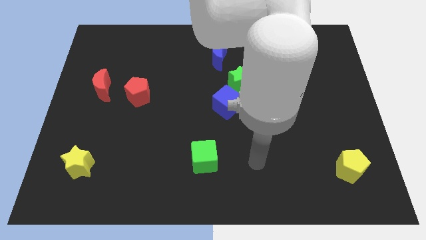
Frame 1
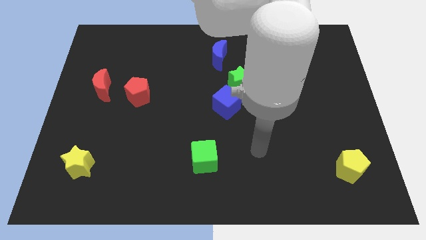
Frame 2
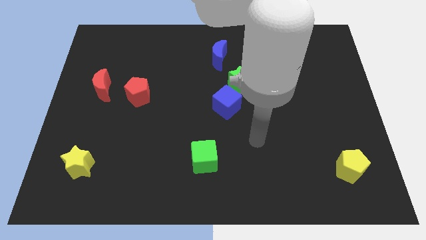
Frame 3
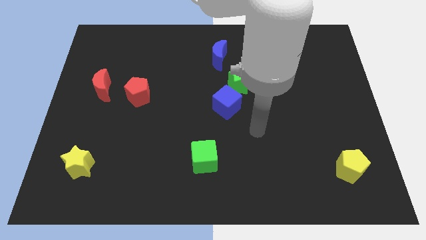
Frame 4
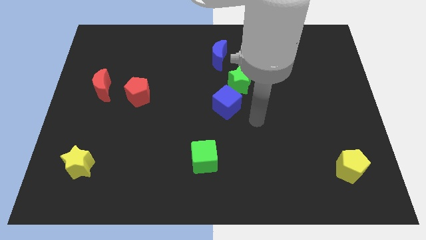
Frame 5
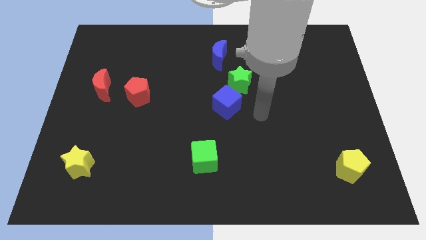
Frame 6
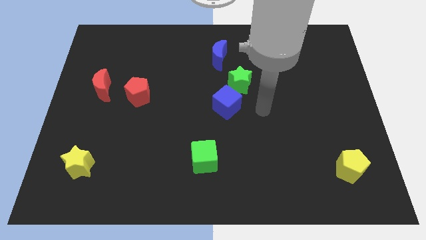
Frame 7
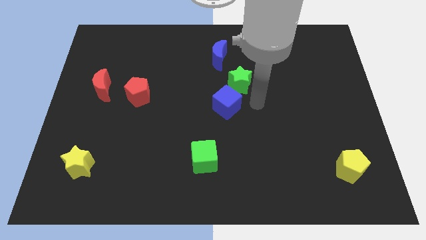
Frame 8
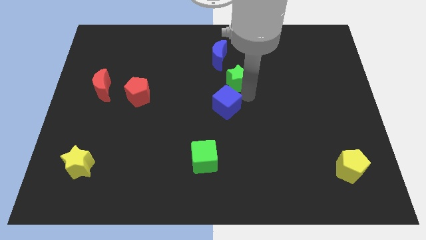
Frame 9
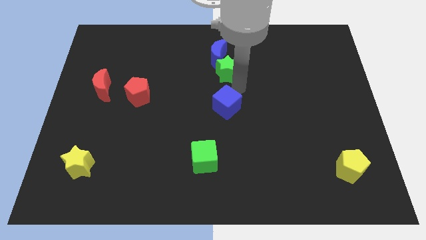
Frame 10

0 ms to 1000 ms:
separate the blue cube from the green star

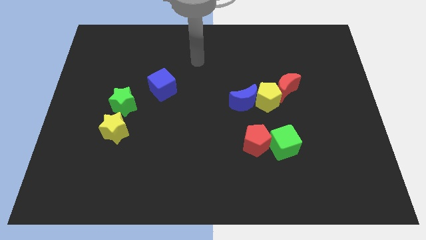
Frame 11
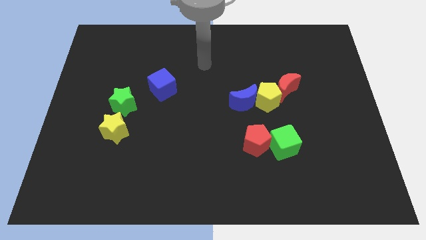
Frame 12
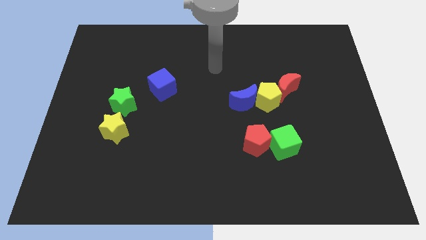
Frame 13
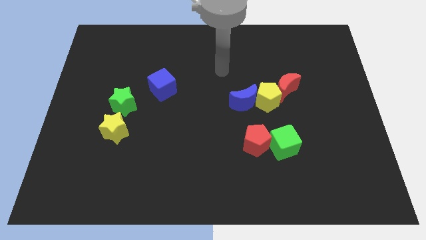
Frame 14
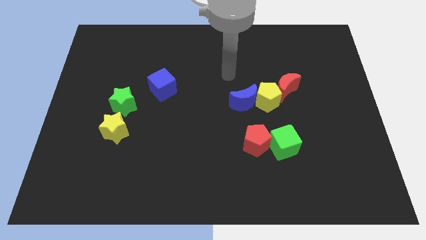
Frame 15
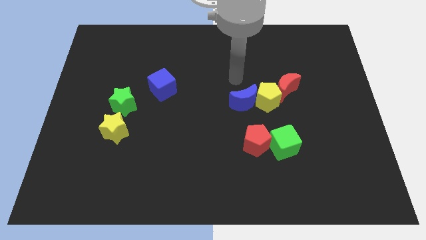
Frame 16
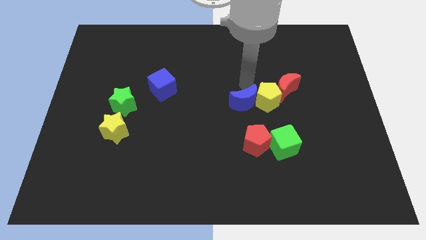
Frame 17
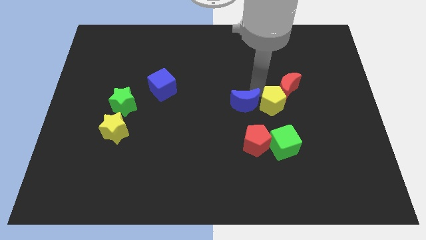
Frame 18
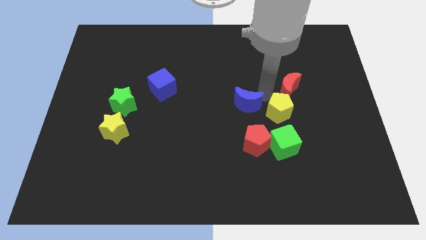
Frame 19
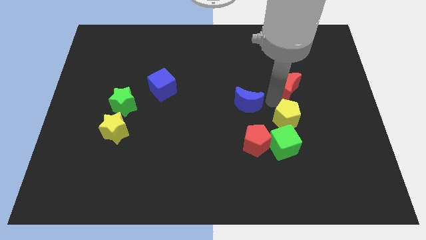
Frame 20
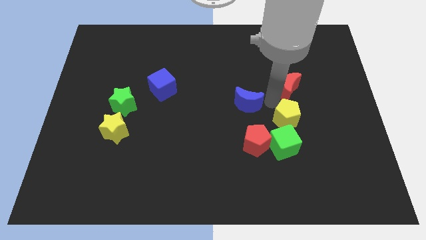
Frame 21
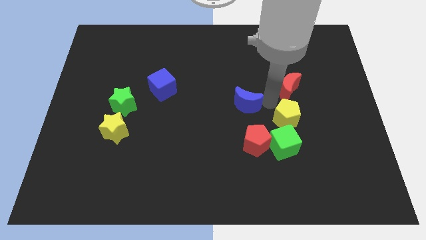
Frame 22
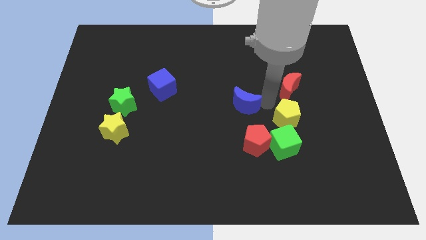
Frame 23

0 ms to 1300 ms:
move the blue moon away from the yellow pentagon

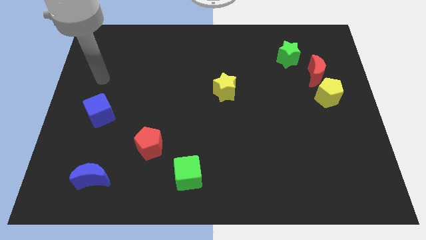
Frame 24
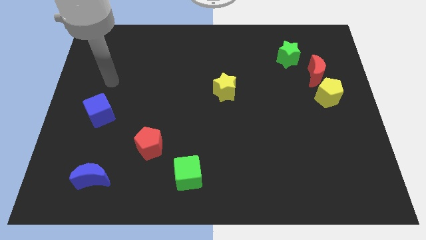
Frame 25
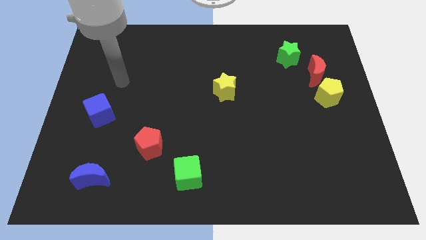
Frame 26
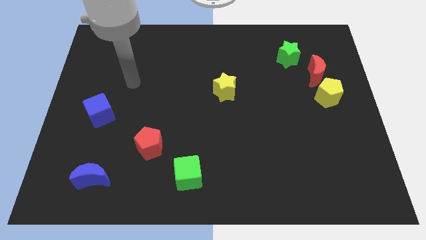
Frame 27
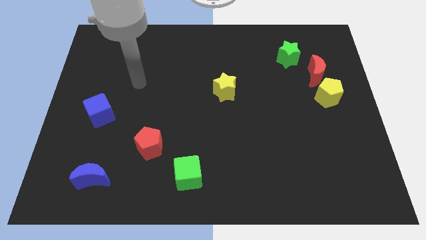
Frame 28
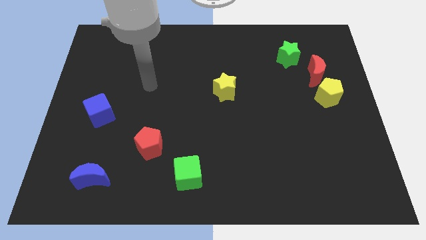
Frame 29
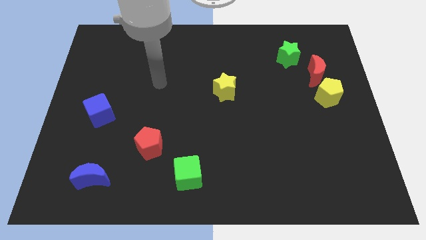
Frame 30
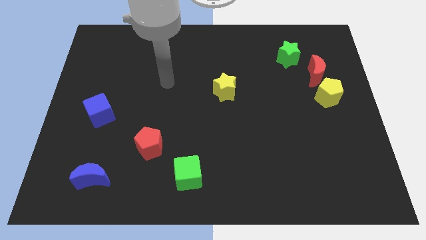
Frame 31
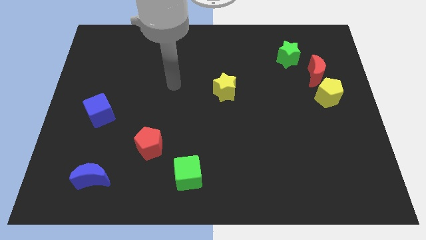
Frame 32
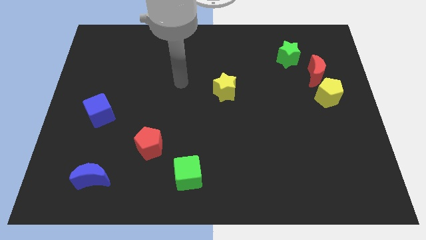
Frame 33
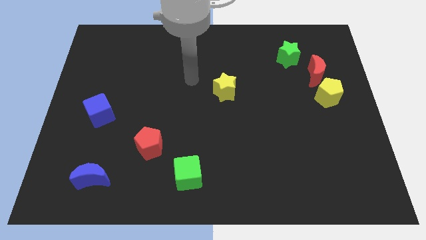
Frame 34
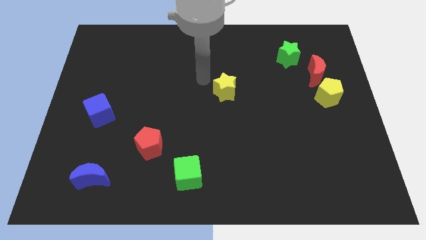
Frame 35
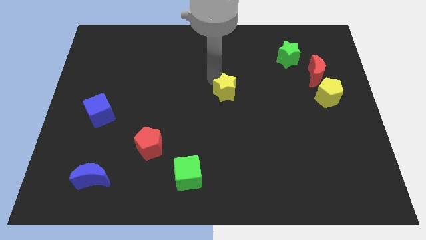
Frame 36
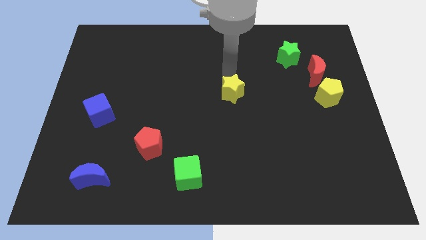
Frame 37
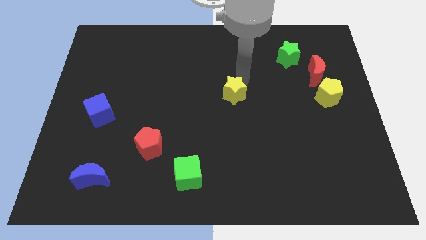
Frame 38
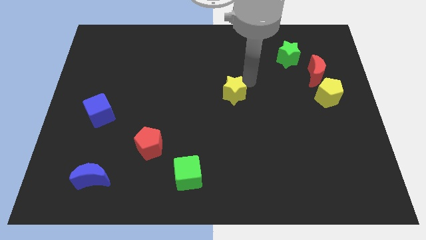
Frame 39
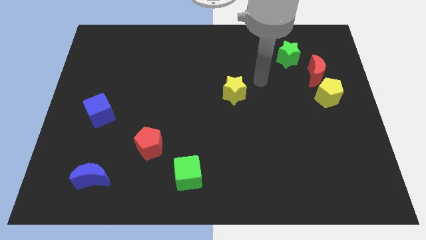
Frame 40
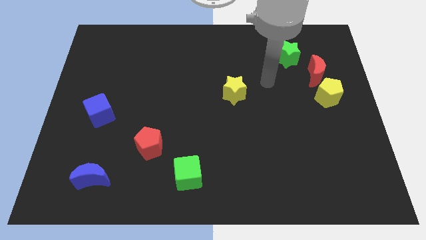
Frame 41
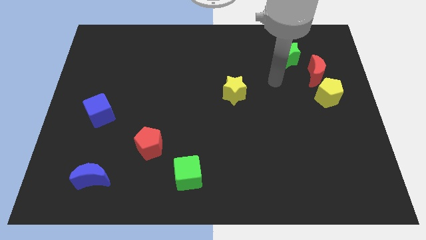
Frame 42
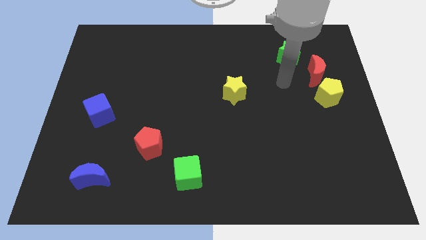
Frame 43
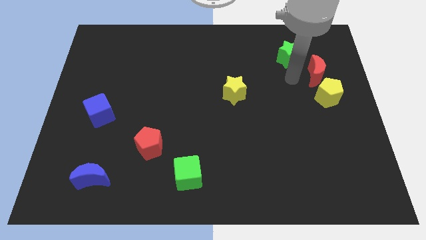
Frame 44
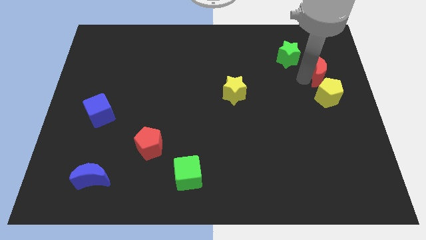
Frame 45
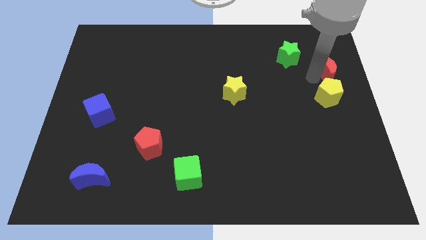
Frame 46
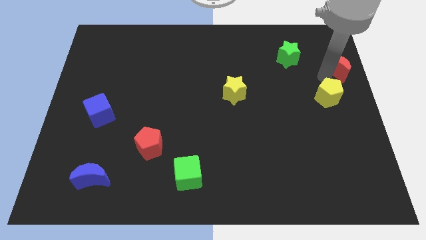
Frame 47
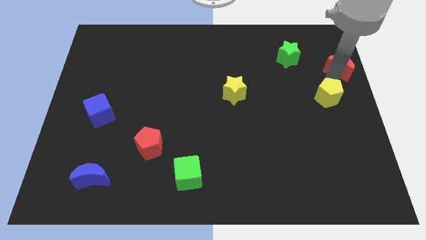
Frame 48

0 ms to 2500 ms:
move the yellow pentagon away from the red moon

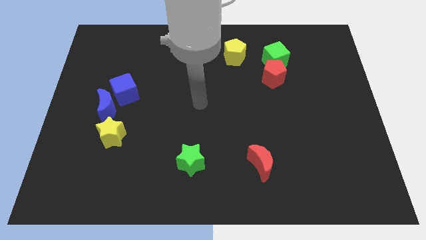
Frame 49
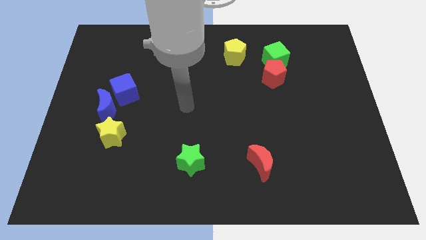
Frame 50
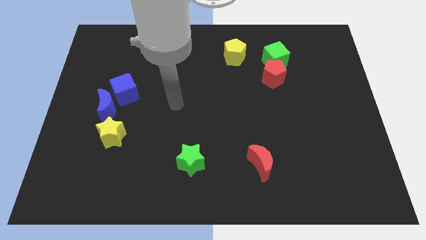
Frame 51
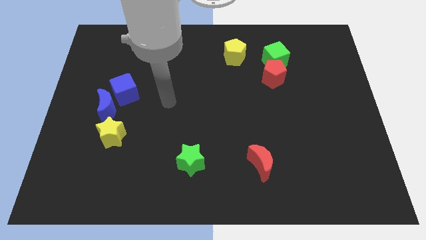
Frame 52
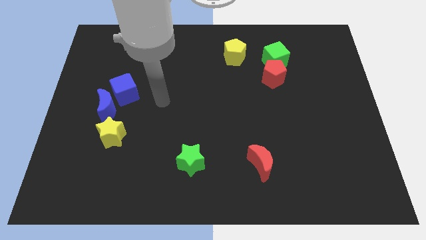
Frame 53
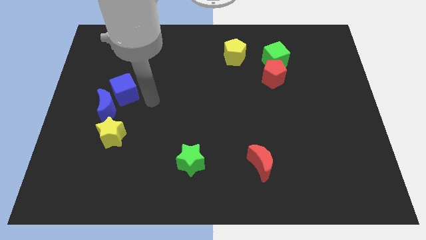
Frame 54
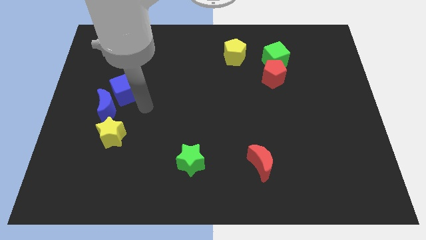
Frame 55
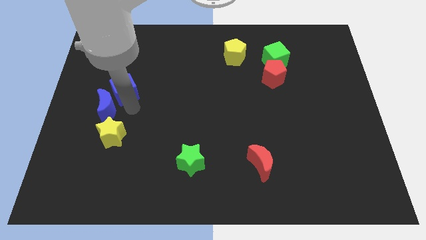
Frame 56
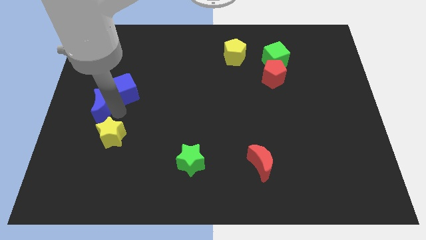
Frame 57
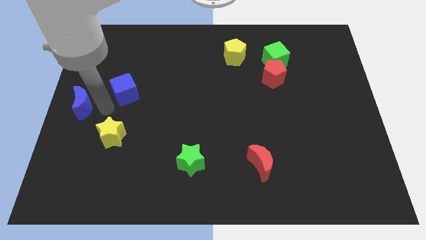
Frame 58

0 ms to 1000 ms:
separate the blue cube from the blue moon

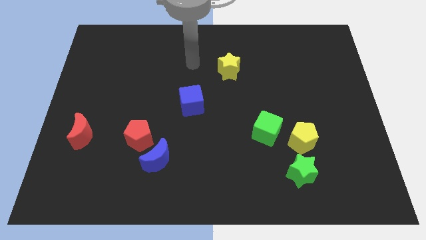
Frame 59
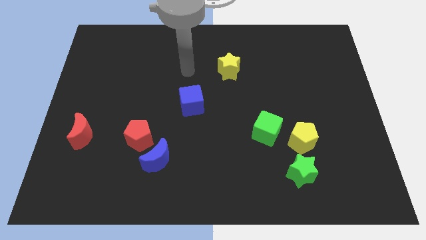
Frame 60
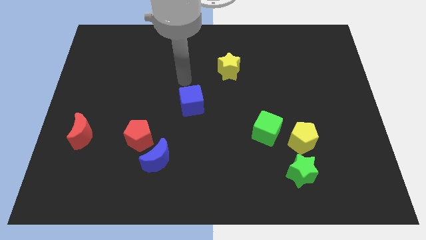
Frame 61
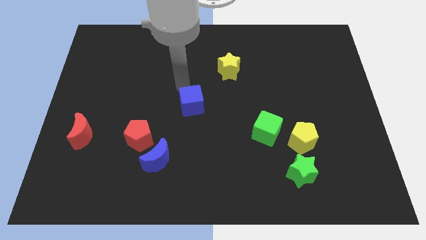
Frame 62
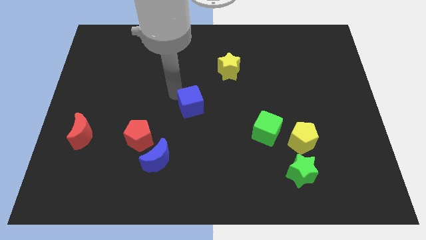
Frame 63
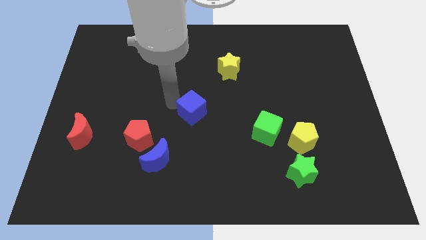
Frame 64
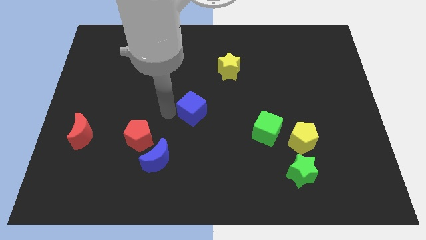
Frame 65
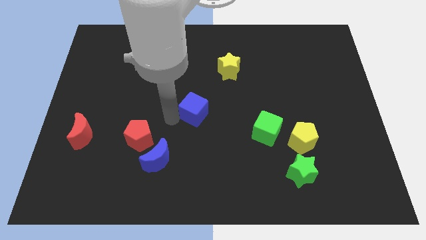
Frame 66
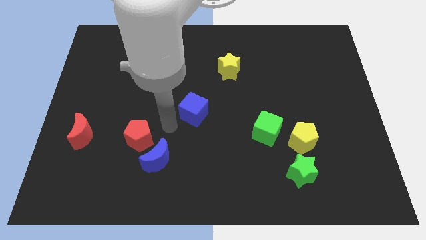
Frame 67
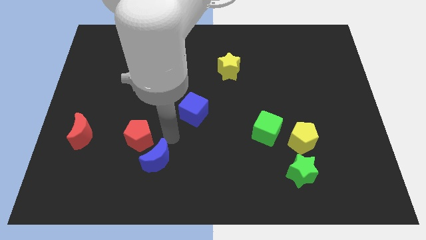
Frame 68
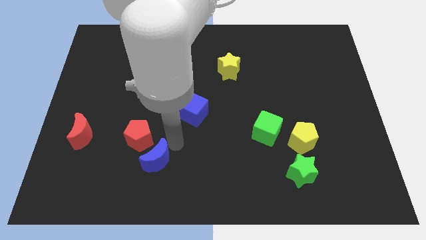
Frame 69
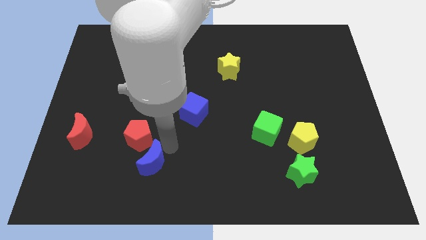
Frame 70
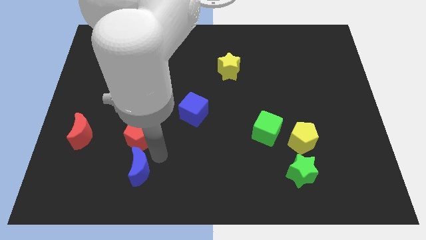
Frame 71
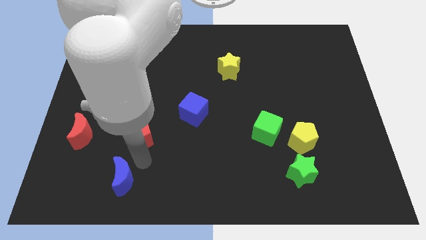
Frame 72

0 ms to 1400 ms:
separate the red pentagon from the blue moon

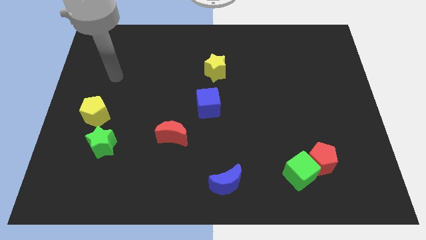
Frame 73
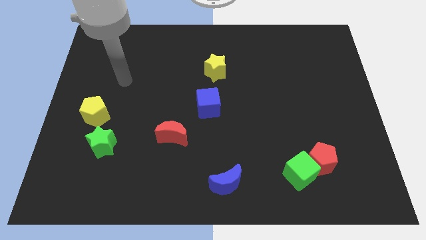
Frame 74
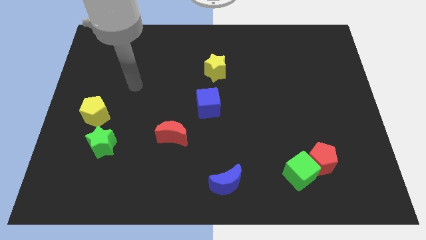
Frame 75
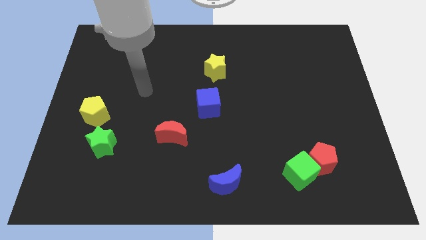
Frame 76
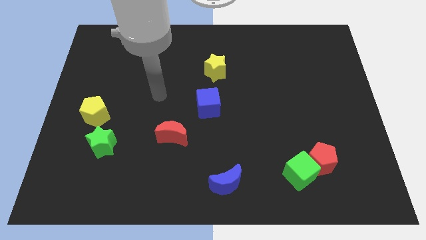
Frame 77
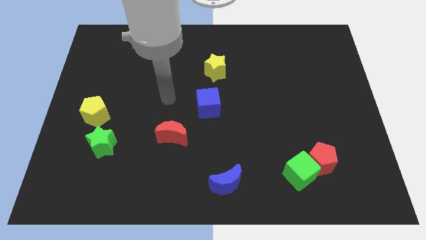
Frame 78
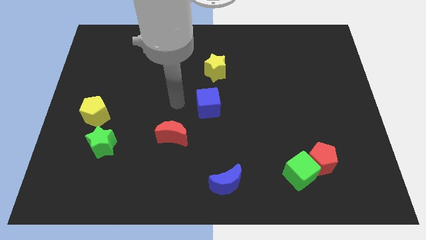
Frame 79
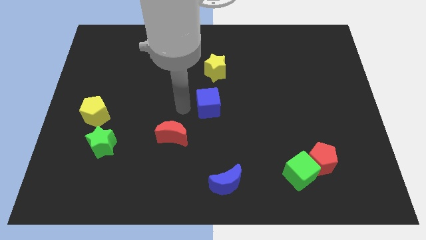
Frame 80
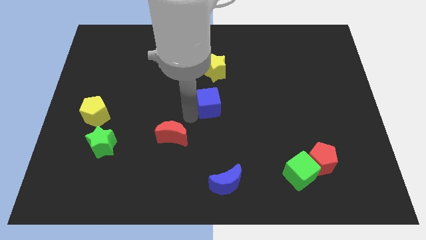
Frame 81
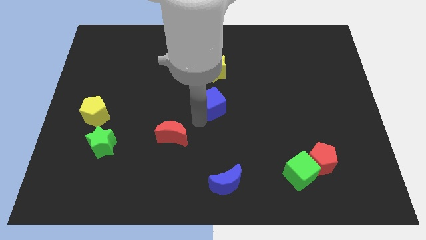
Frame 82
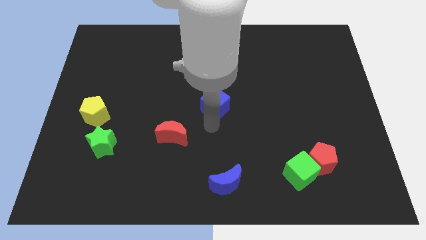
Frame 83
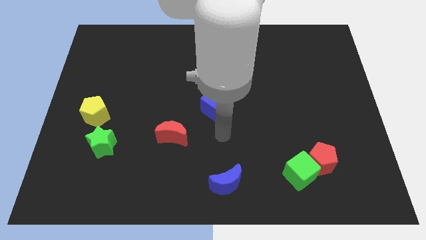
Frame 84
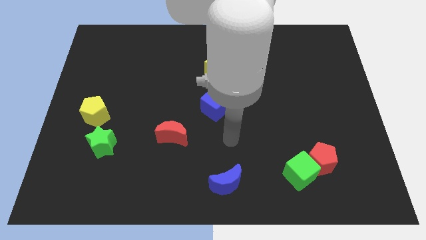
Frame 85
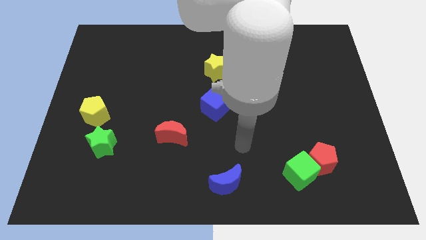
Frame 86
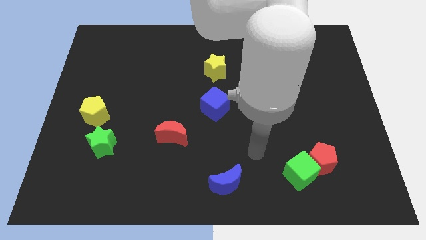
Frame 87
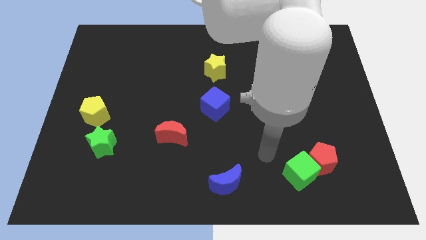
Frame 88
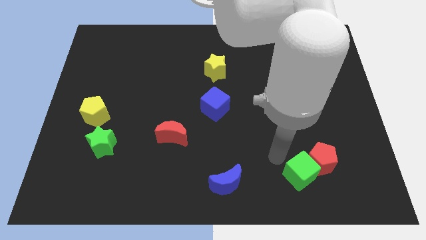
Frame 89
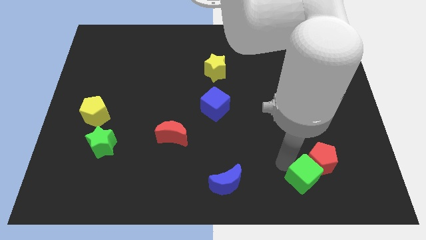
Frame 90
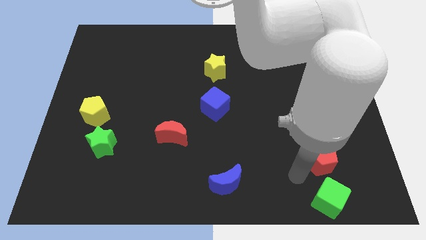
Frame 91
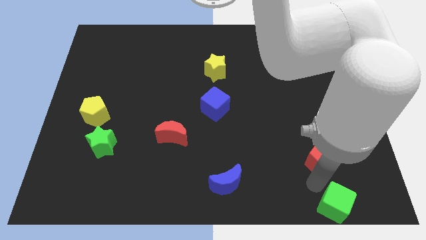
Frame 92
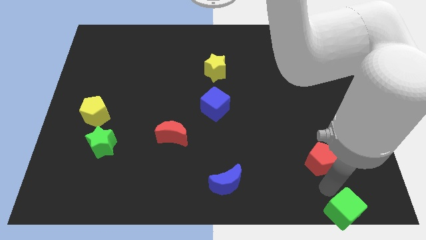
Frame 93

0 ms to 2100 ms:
move the red pentagon away from the green cube
